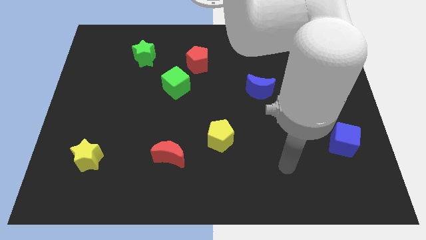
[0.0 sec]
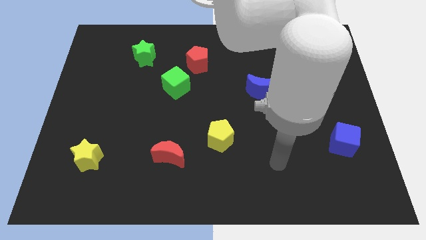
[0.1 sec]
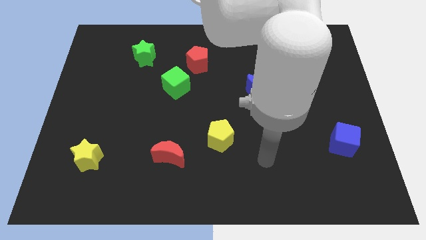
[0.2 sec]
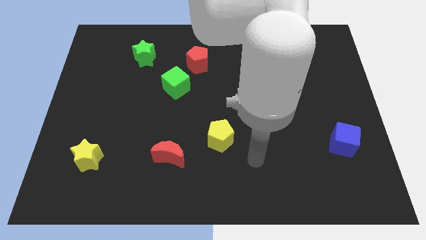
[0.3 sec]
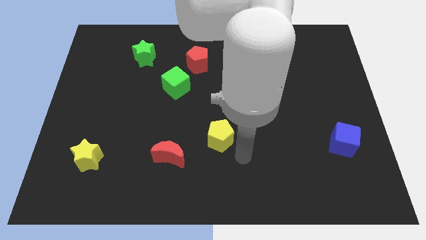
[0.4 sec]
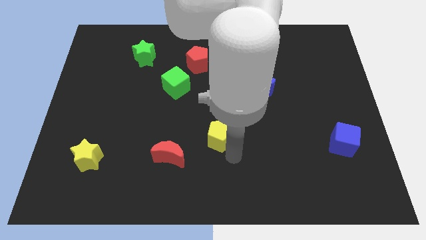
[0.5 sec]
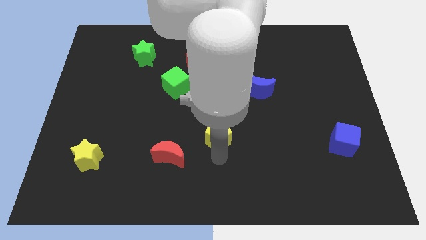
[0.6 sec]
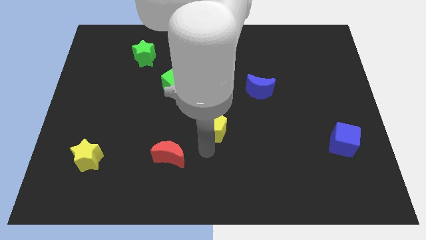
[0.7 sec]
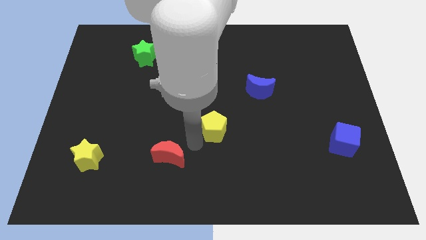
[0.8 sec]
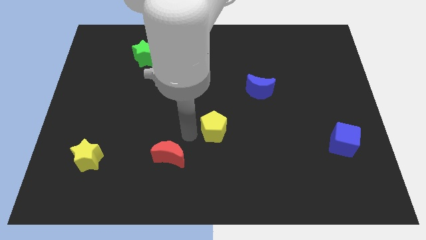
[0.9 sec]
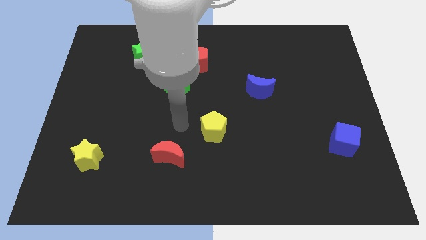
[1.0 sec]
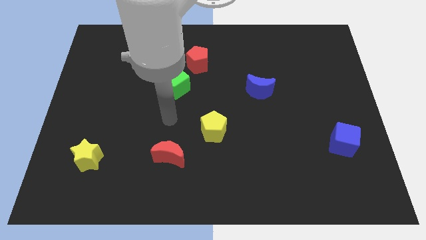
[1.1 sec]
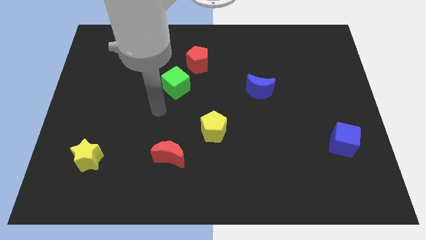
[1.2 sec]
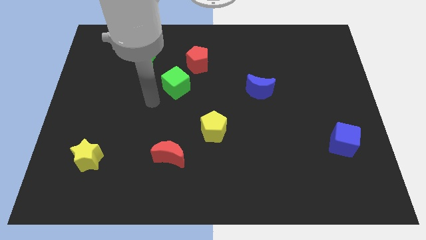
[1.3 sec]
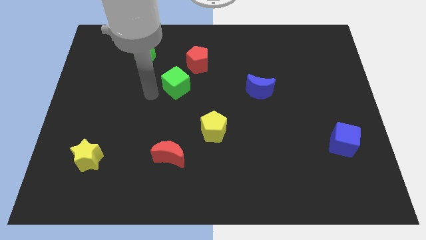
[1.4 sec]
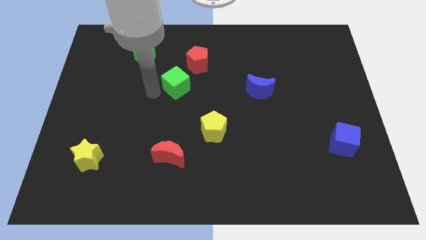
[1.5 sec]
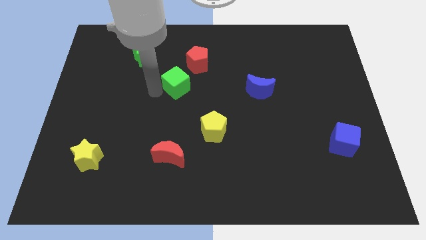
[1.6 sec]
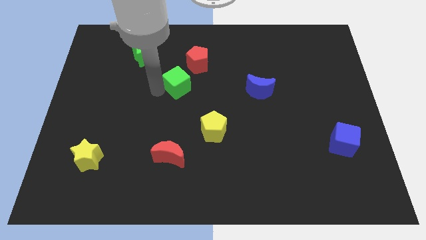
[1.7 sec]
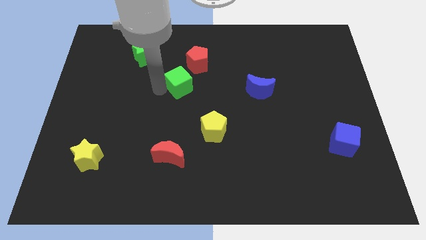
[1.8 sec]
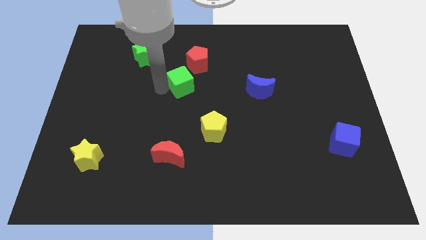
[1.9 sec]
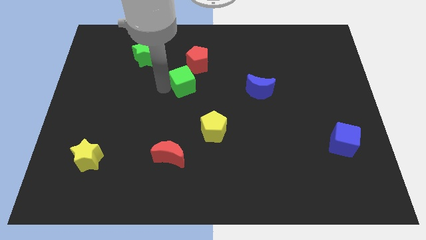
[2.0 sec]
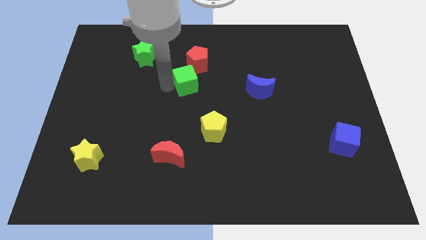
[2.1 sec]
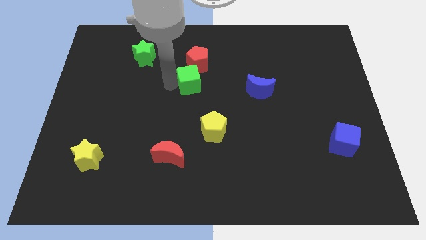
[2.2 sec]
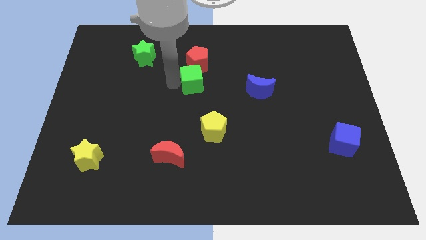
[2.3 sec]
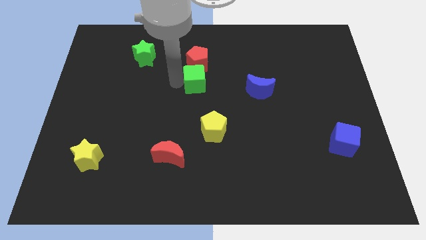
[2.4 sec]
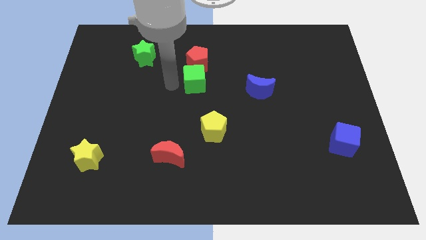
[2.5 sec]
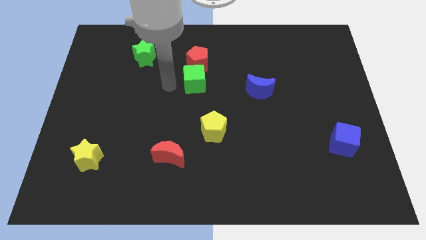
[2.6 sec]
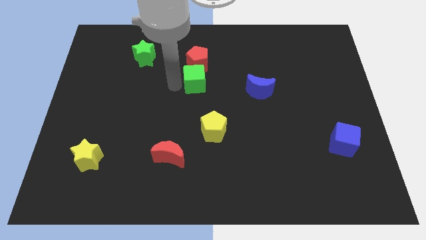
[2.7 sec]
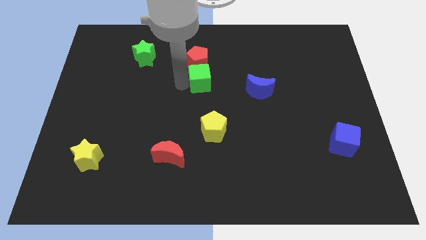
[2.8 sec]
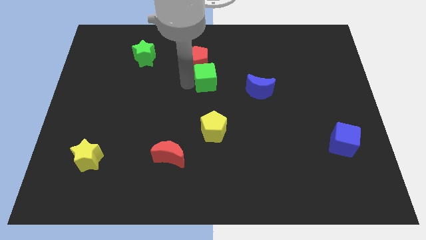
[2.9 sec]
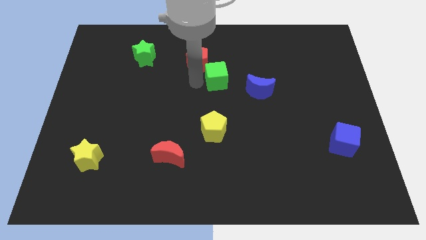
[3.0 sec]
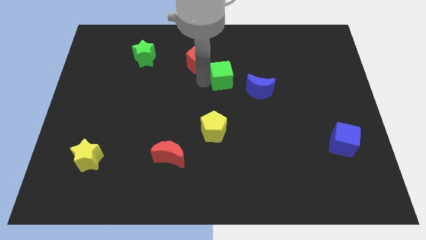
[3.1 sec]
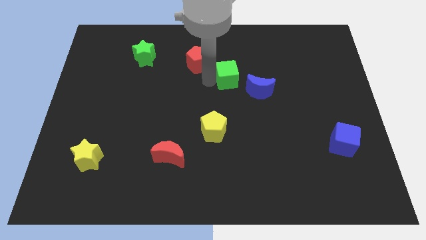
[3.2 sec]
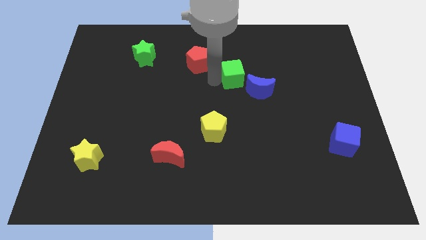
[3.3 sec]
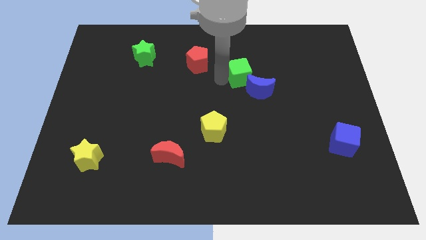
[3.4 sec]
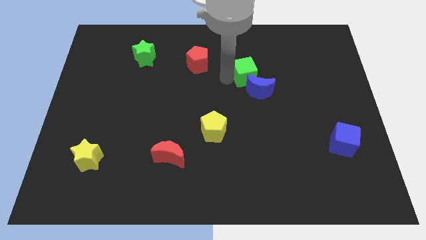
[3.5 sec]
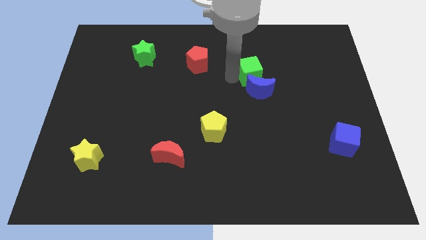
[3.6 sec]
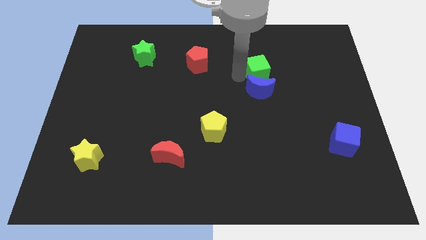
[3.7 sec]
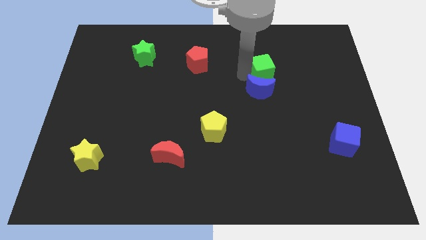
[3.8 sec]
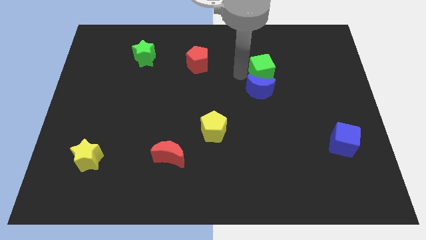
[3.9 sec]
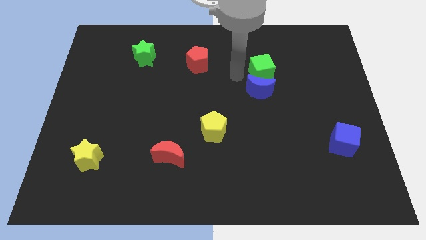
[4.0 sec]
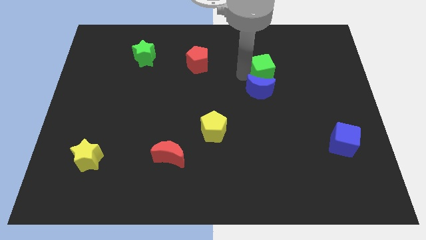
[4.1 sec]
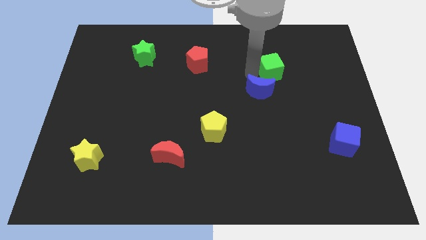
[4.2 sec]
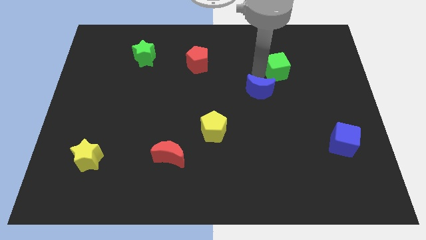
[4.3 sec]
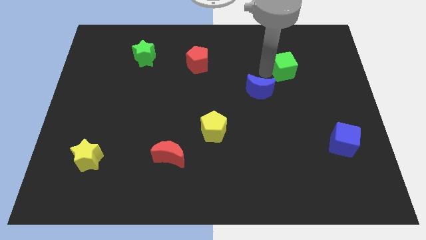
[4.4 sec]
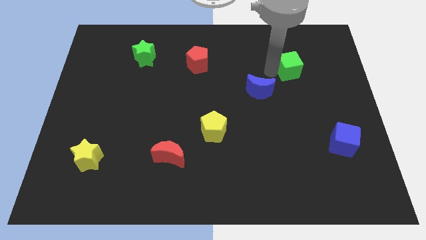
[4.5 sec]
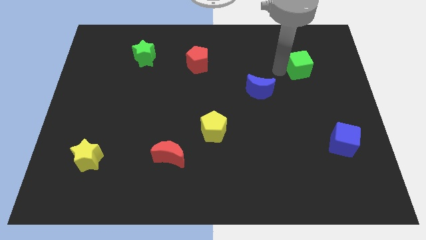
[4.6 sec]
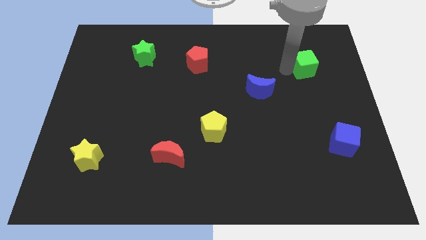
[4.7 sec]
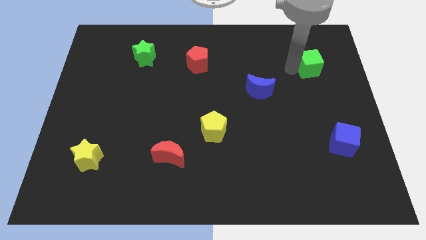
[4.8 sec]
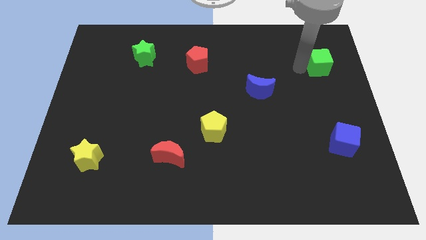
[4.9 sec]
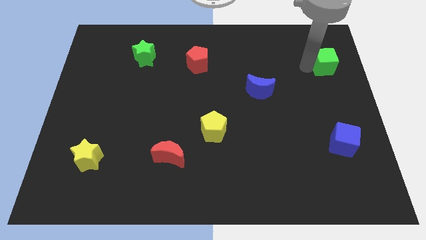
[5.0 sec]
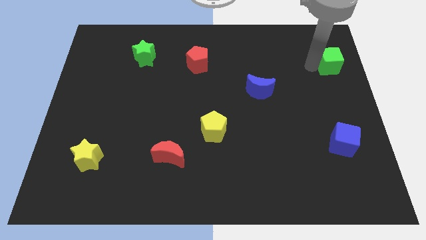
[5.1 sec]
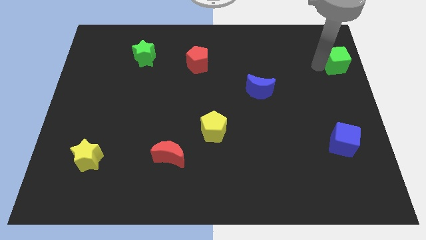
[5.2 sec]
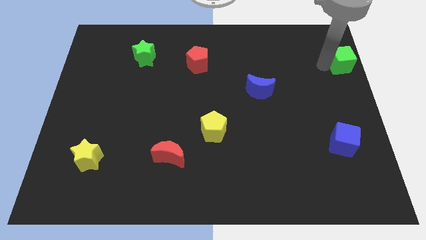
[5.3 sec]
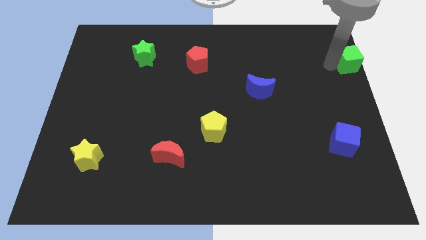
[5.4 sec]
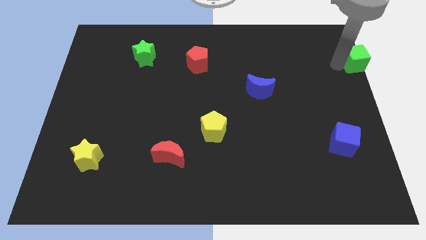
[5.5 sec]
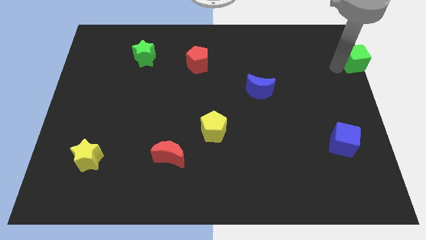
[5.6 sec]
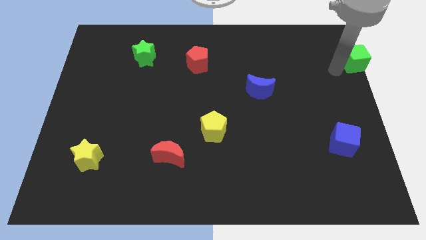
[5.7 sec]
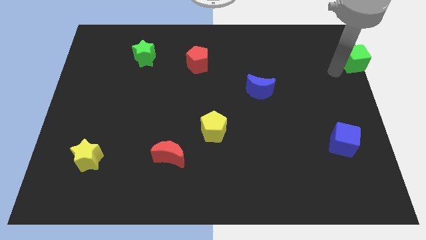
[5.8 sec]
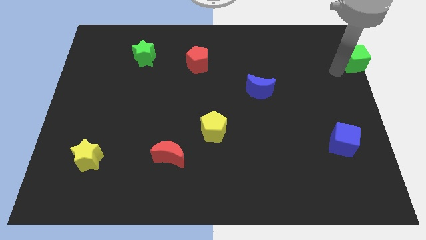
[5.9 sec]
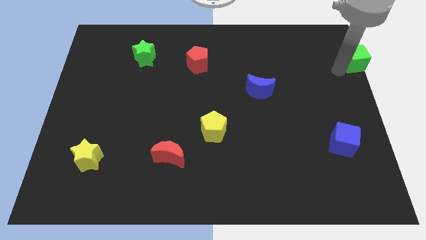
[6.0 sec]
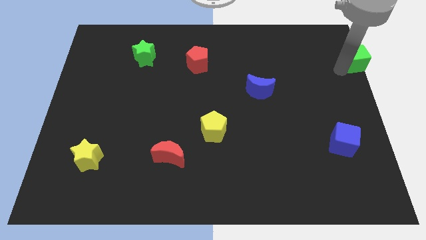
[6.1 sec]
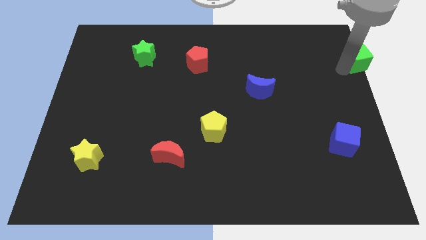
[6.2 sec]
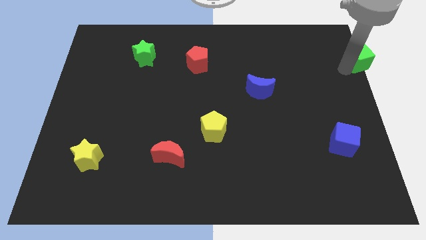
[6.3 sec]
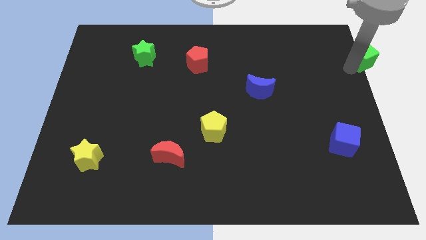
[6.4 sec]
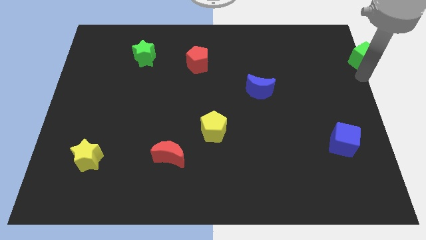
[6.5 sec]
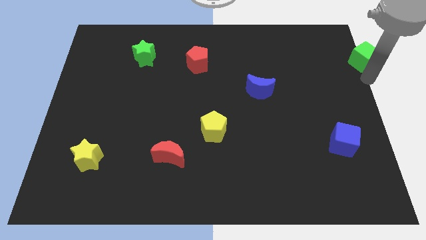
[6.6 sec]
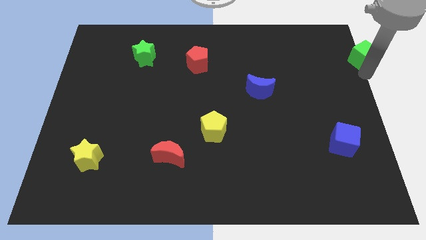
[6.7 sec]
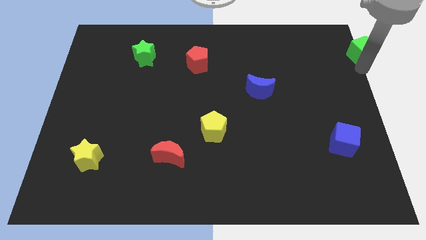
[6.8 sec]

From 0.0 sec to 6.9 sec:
put the green cube to the top right
